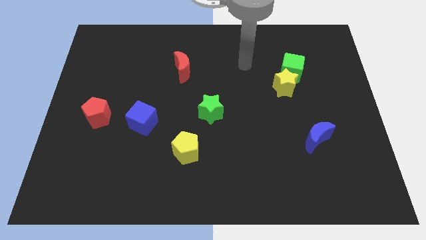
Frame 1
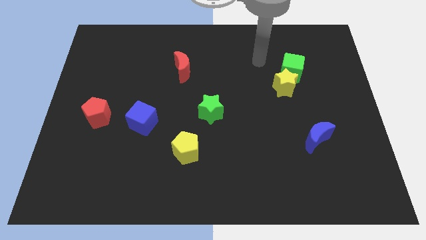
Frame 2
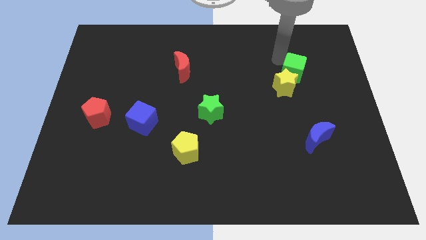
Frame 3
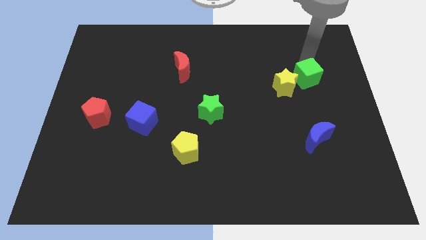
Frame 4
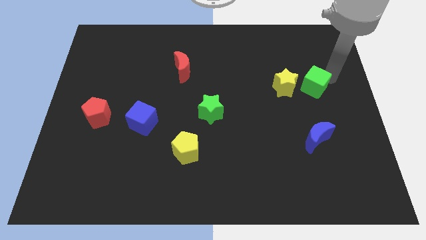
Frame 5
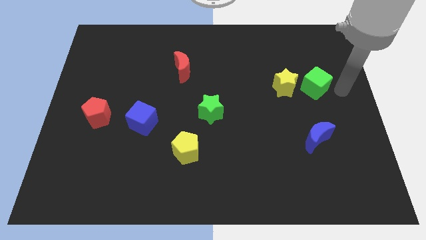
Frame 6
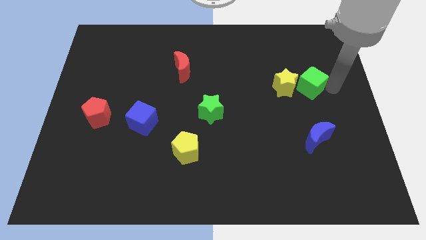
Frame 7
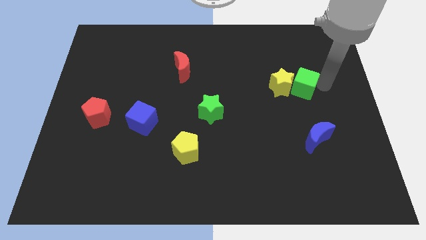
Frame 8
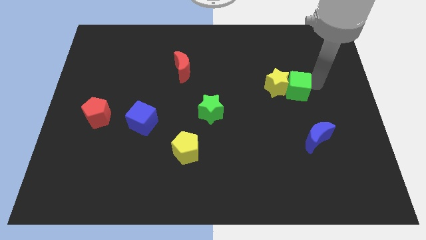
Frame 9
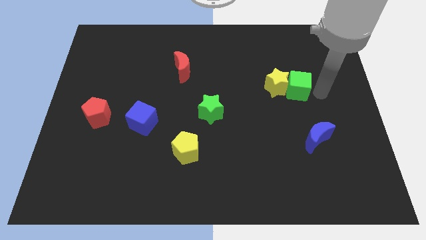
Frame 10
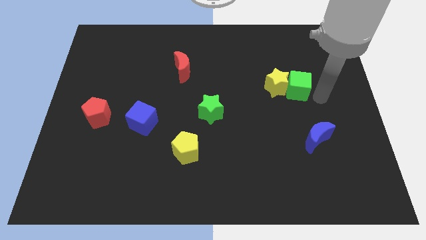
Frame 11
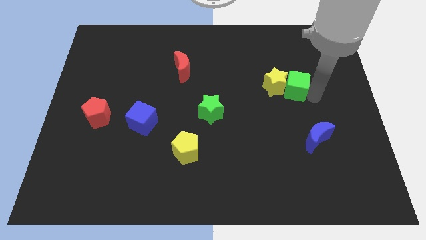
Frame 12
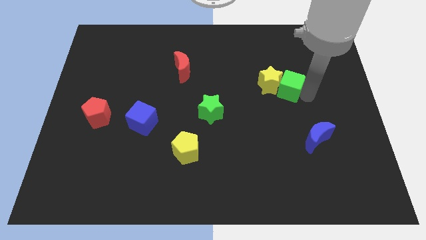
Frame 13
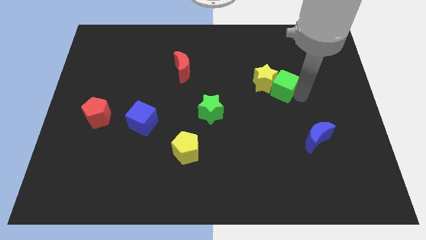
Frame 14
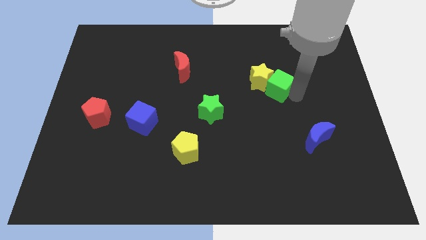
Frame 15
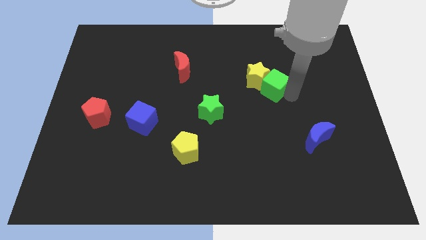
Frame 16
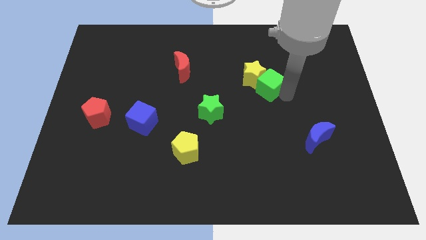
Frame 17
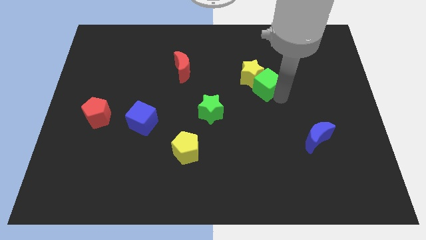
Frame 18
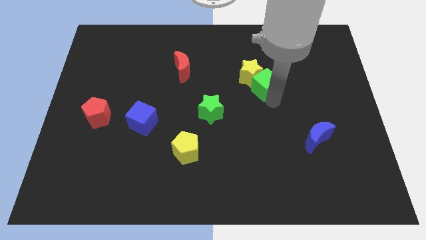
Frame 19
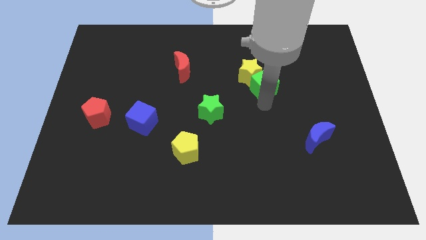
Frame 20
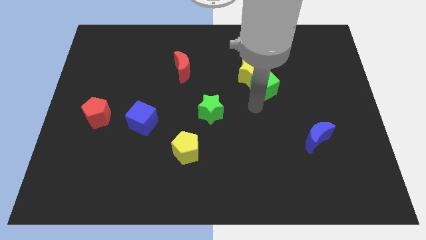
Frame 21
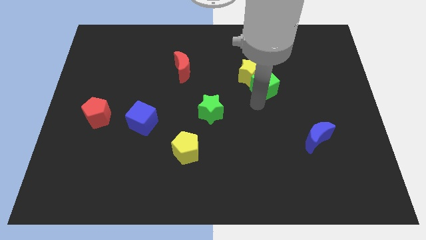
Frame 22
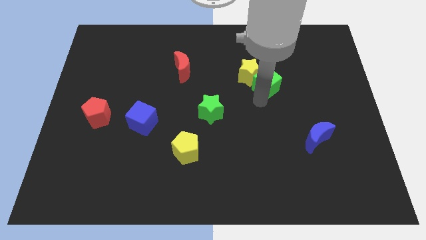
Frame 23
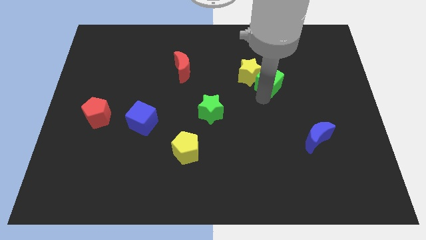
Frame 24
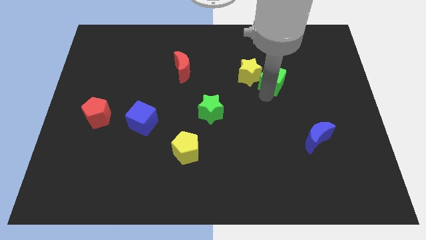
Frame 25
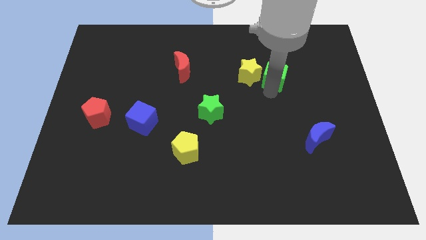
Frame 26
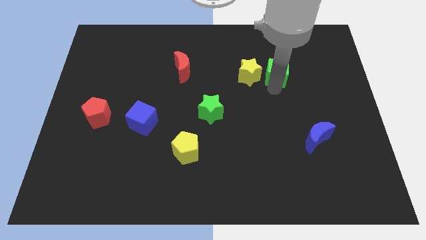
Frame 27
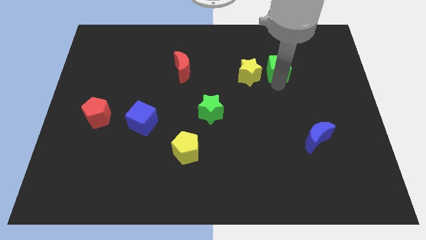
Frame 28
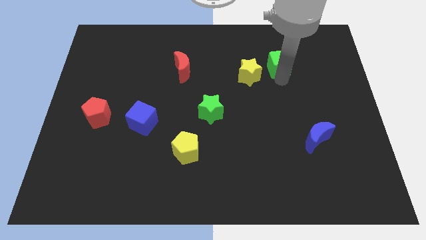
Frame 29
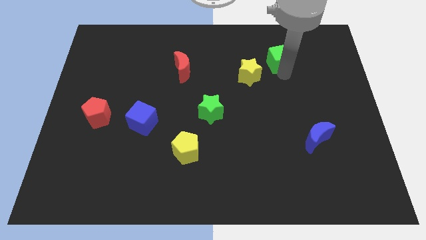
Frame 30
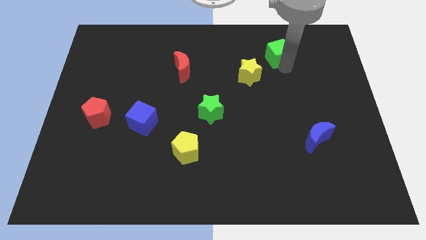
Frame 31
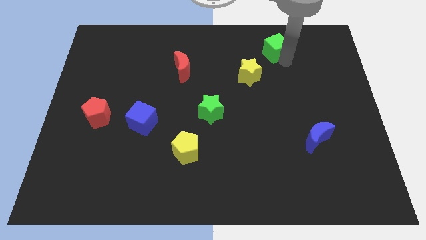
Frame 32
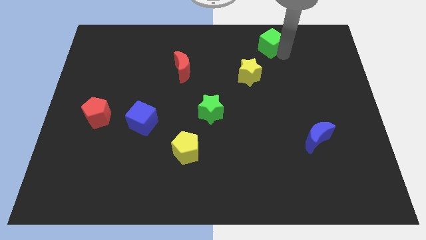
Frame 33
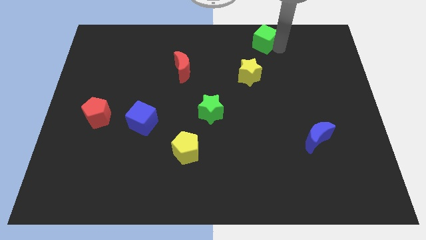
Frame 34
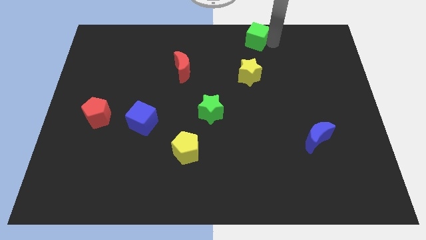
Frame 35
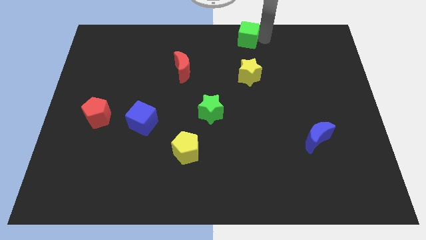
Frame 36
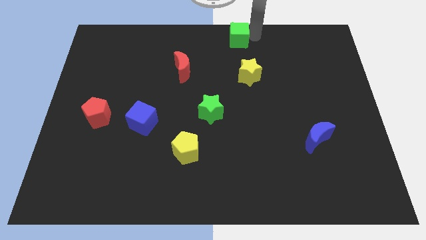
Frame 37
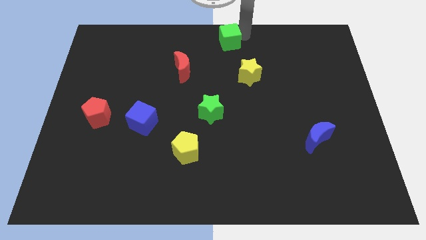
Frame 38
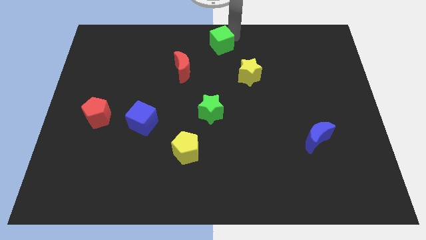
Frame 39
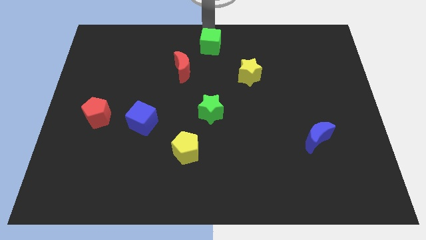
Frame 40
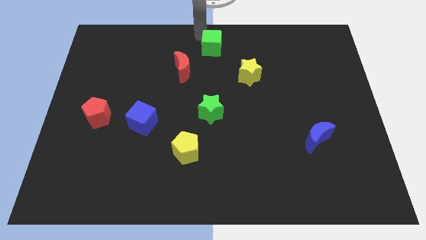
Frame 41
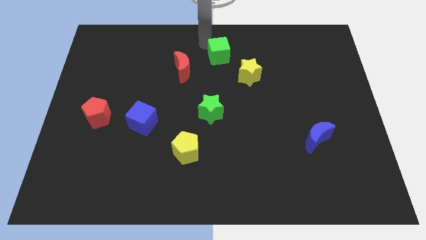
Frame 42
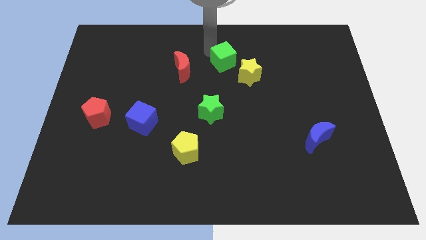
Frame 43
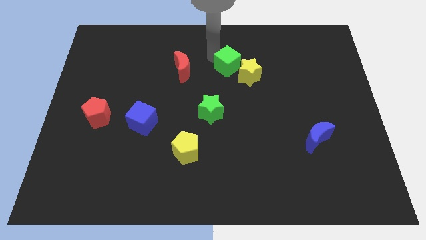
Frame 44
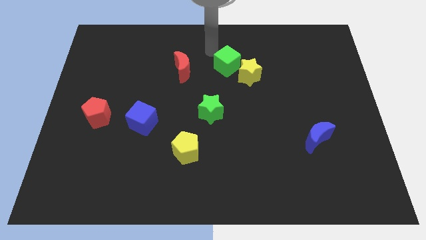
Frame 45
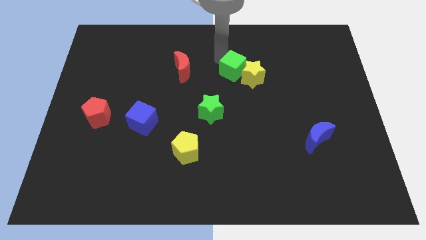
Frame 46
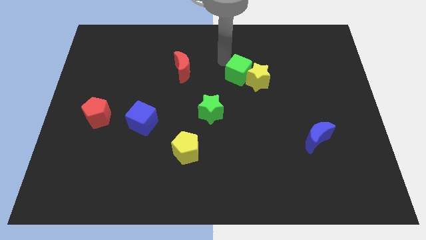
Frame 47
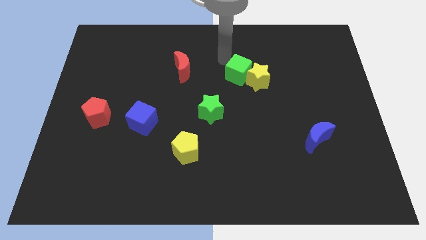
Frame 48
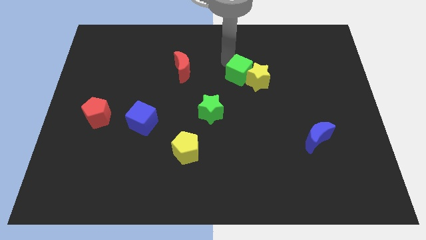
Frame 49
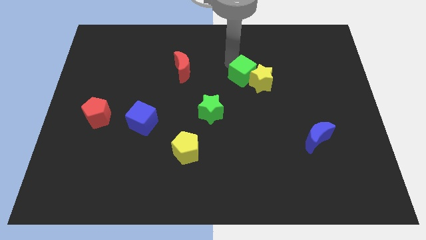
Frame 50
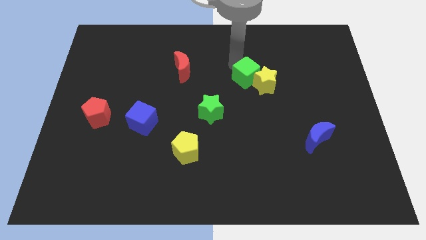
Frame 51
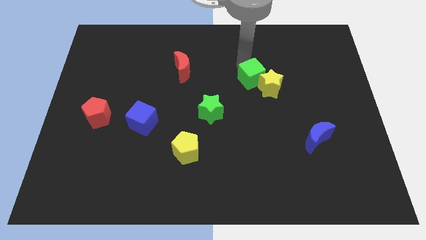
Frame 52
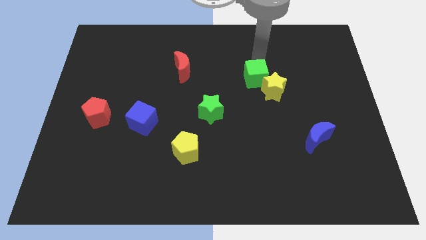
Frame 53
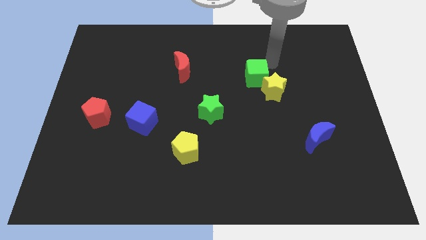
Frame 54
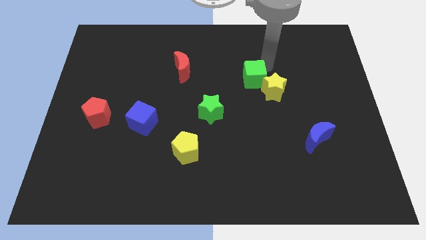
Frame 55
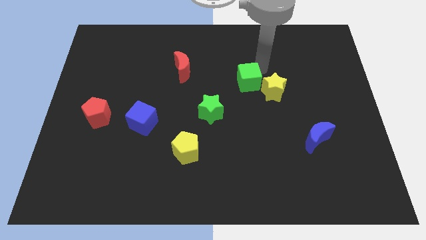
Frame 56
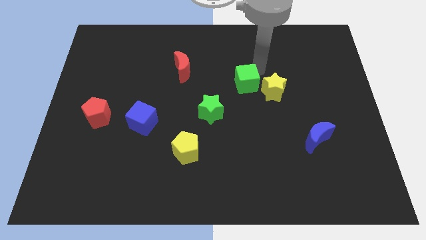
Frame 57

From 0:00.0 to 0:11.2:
push the green cube to the top right of the green star
